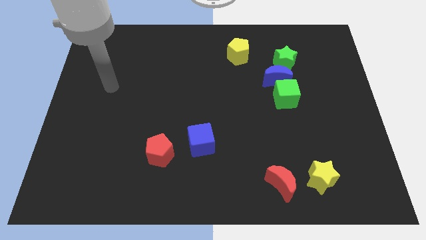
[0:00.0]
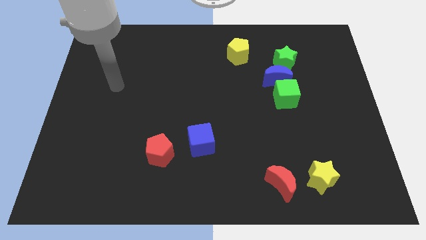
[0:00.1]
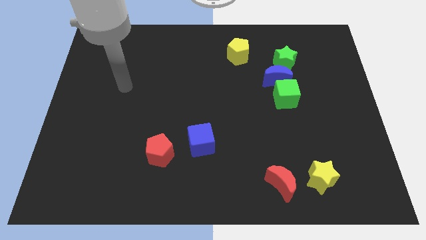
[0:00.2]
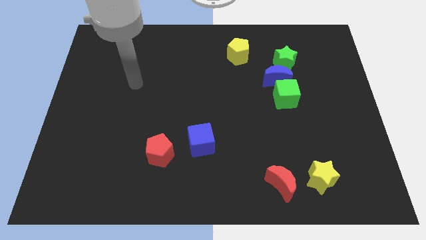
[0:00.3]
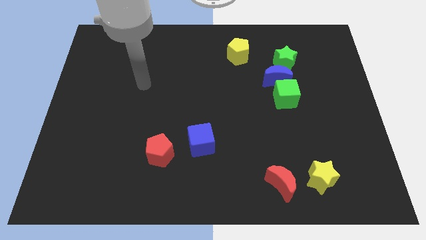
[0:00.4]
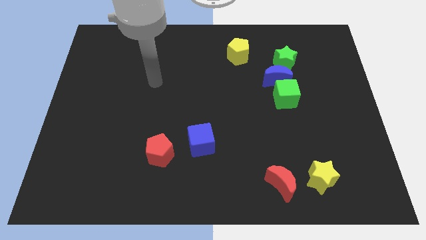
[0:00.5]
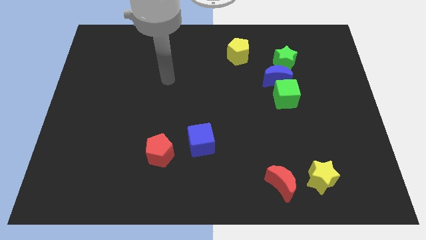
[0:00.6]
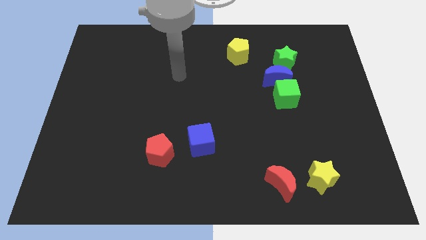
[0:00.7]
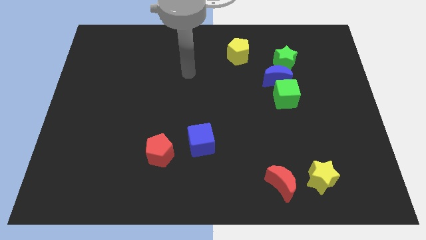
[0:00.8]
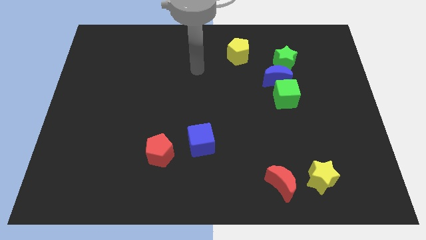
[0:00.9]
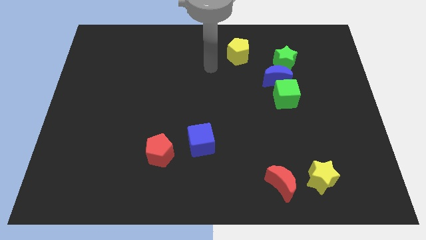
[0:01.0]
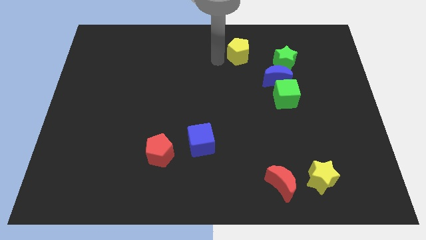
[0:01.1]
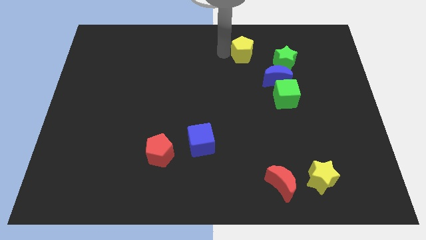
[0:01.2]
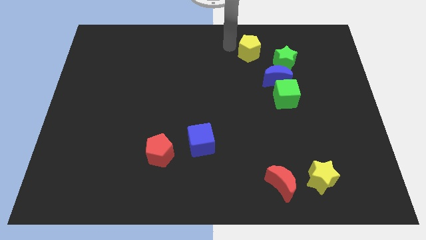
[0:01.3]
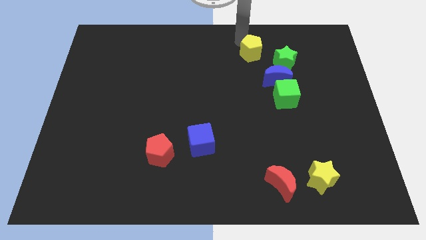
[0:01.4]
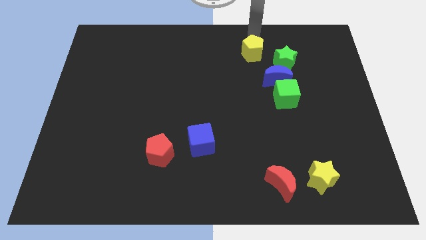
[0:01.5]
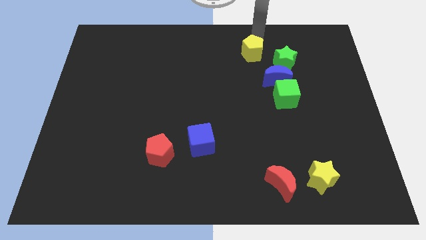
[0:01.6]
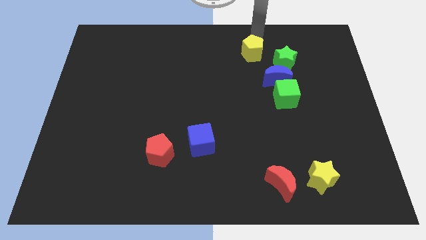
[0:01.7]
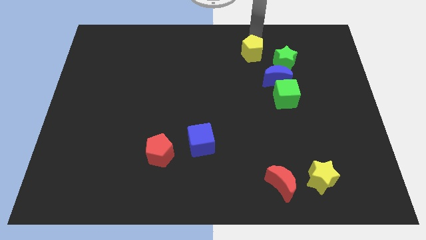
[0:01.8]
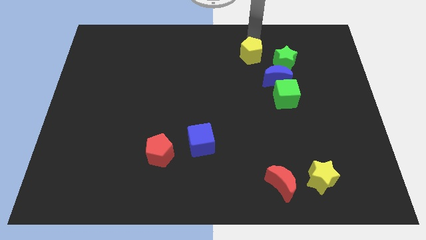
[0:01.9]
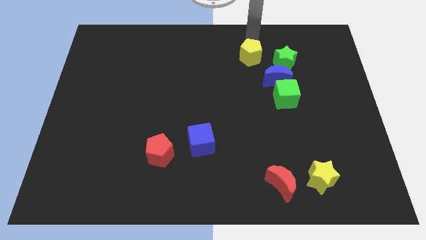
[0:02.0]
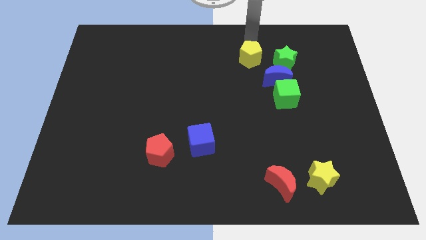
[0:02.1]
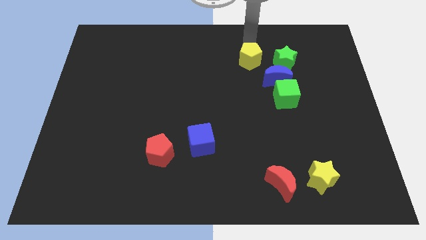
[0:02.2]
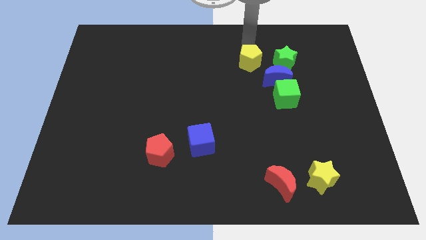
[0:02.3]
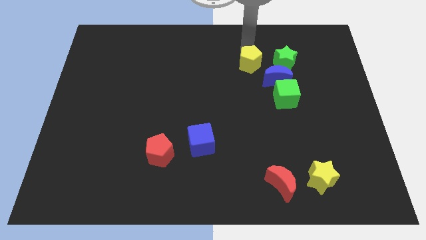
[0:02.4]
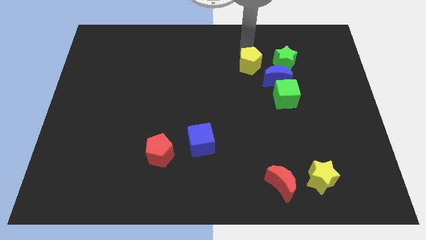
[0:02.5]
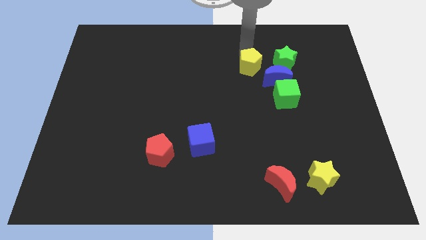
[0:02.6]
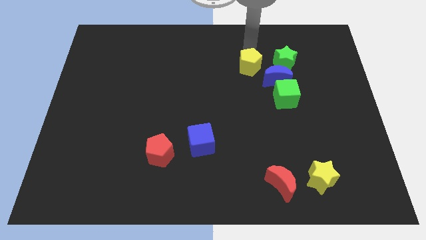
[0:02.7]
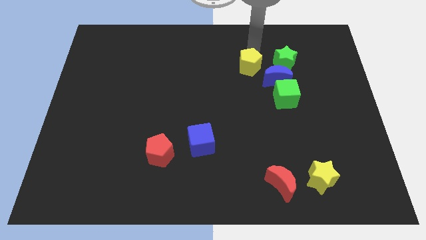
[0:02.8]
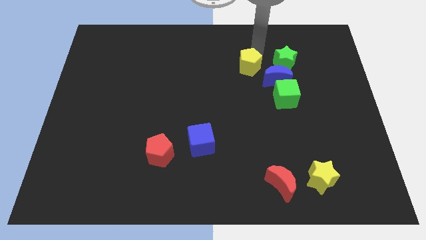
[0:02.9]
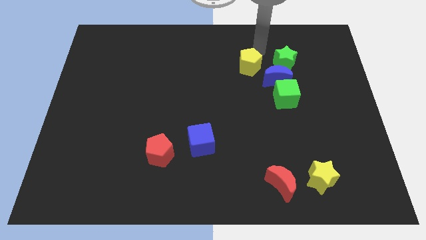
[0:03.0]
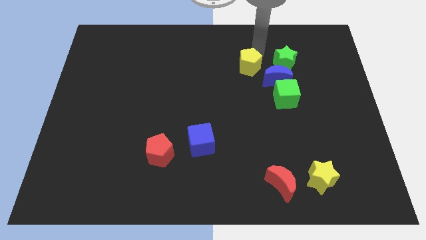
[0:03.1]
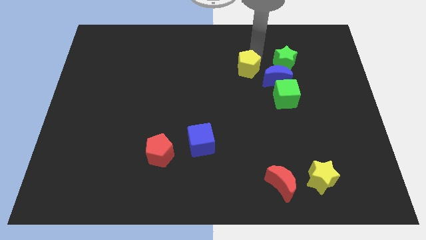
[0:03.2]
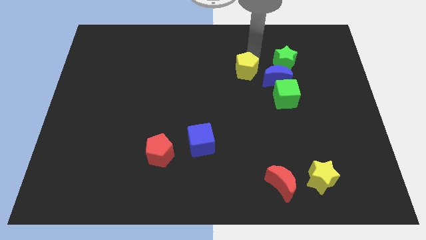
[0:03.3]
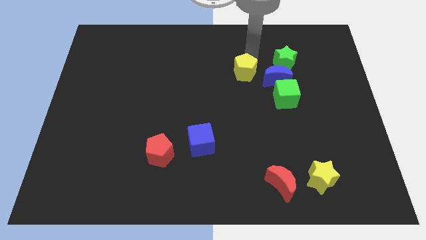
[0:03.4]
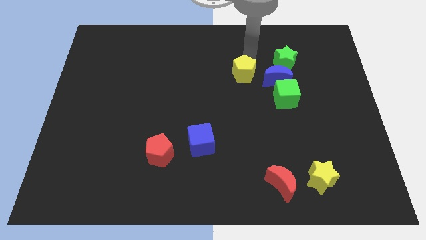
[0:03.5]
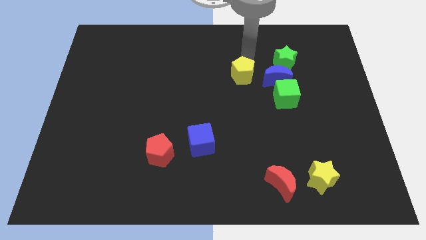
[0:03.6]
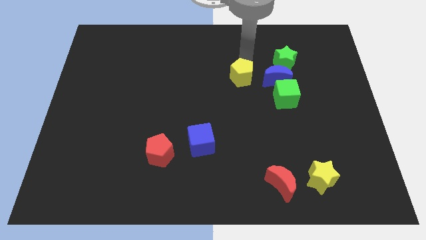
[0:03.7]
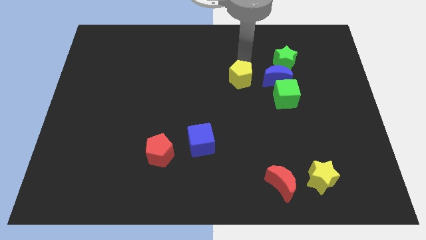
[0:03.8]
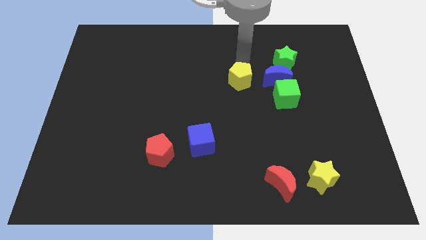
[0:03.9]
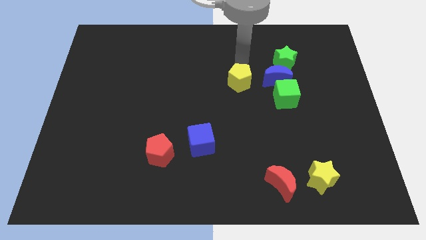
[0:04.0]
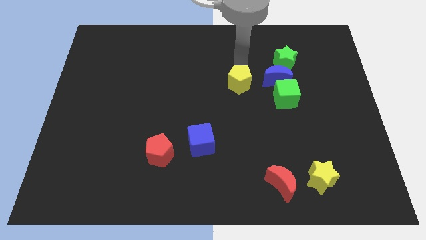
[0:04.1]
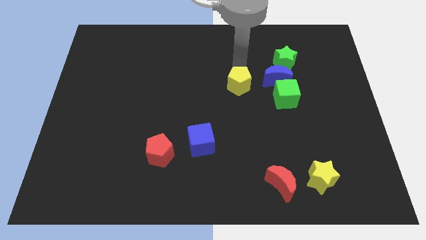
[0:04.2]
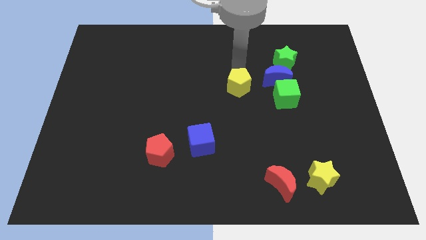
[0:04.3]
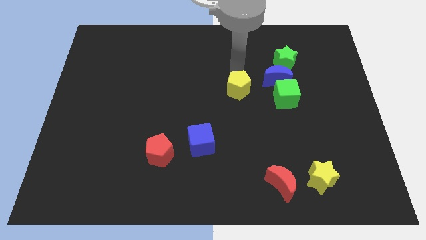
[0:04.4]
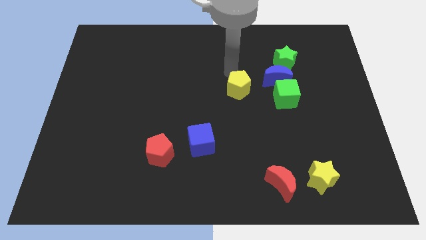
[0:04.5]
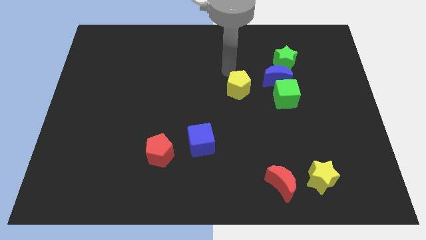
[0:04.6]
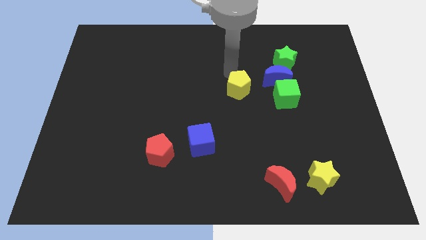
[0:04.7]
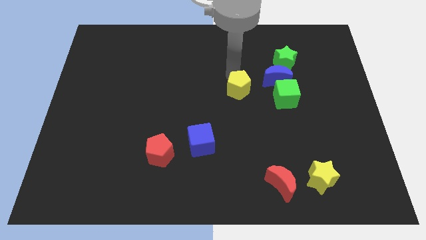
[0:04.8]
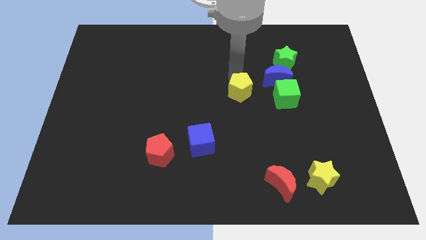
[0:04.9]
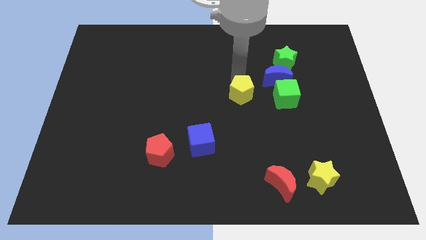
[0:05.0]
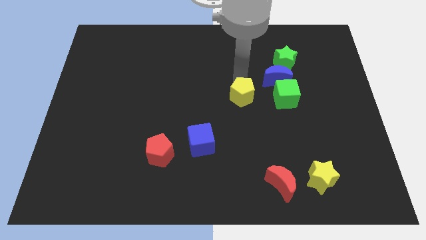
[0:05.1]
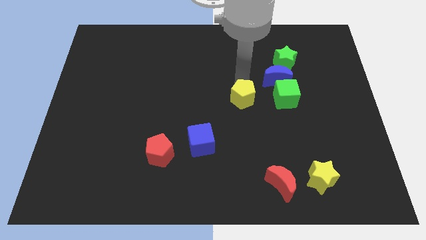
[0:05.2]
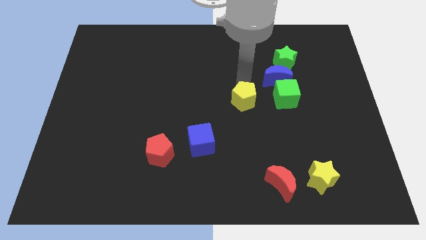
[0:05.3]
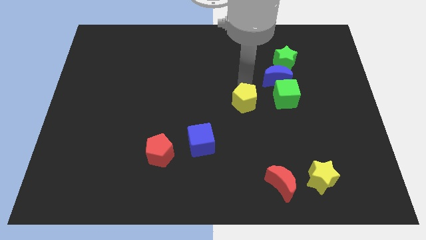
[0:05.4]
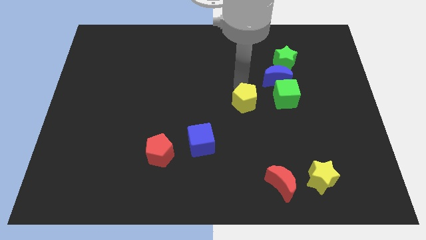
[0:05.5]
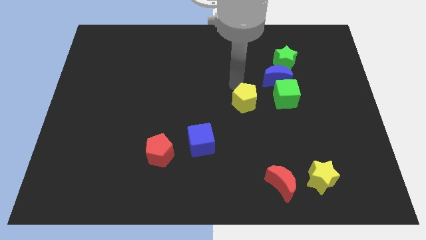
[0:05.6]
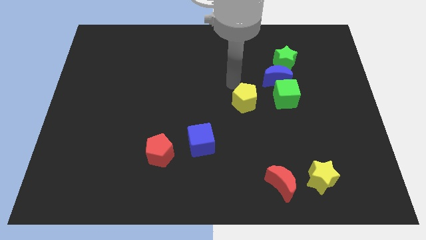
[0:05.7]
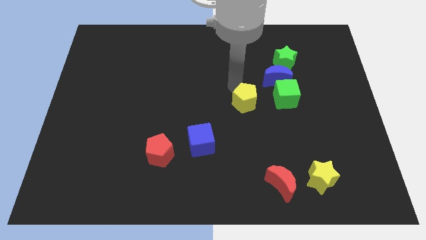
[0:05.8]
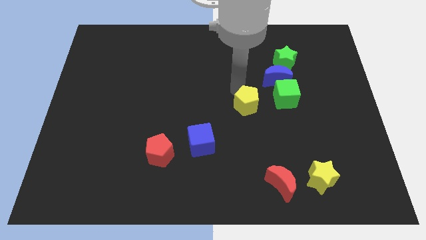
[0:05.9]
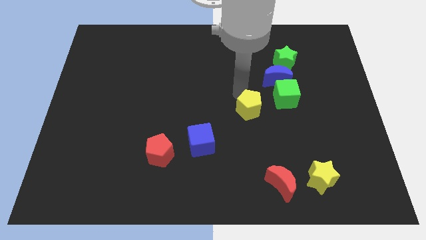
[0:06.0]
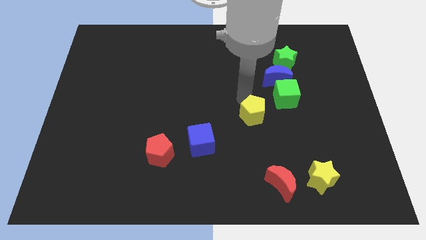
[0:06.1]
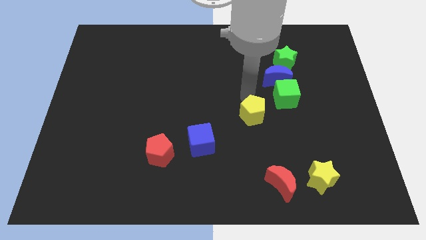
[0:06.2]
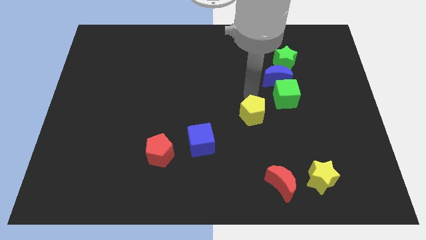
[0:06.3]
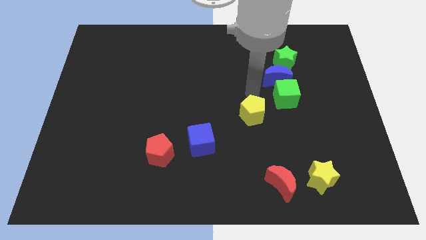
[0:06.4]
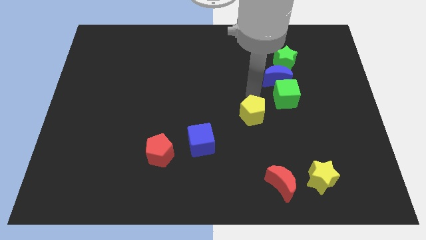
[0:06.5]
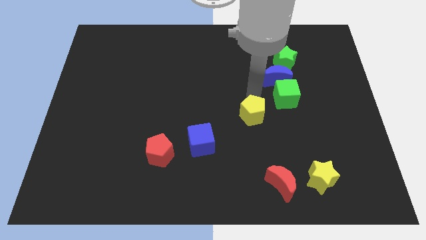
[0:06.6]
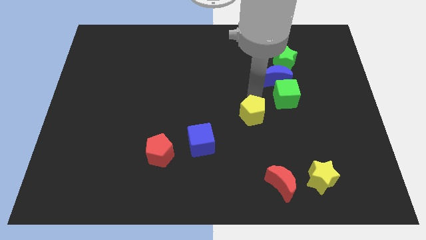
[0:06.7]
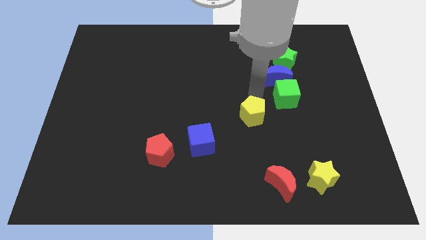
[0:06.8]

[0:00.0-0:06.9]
slide the yellow pentagon down

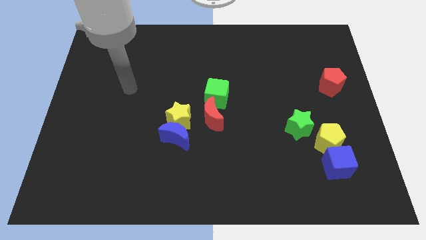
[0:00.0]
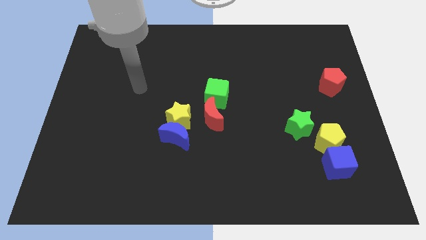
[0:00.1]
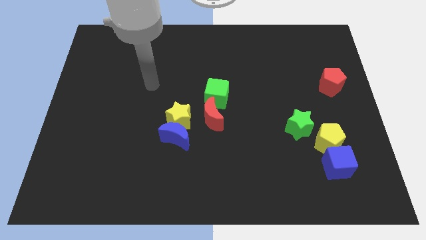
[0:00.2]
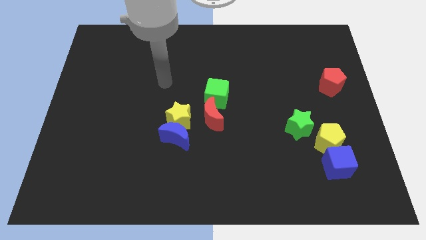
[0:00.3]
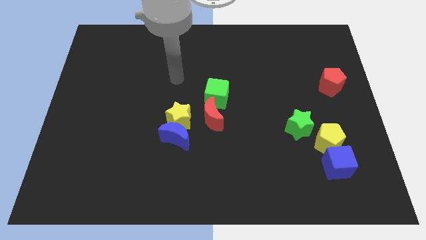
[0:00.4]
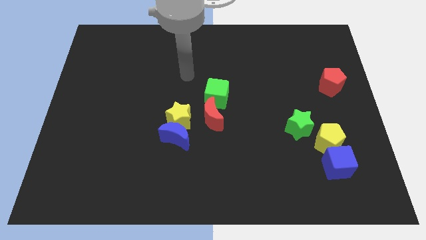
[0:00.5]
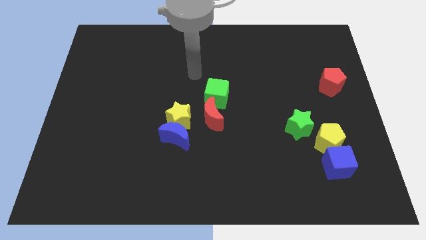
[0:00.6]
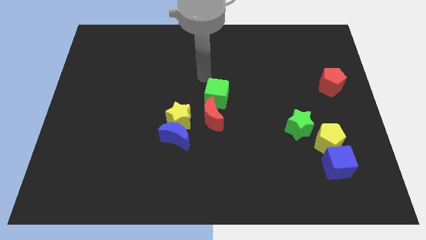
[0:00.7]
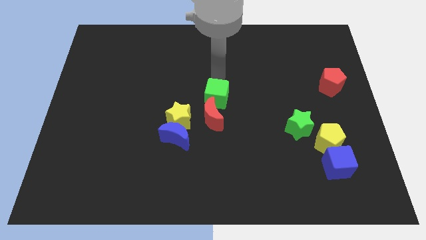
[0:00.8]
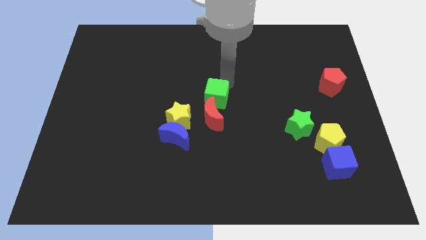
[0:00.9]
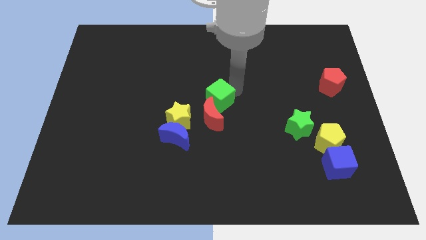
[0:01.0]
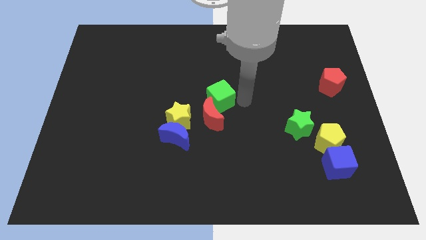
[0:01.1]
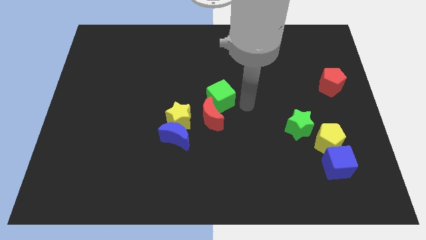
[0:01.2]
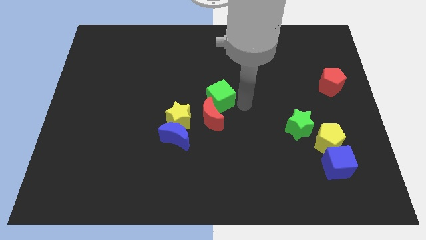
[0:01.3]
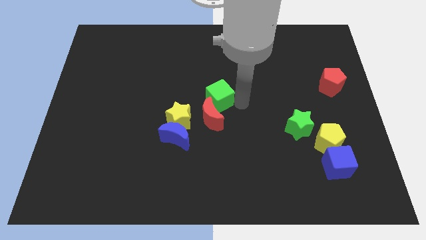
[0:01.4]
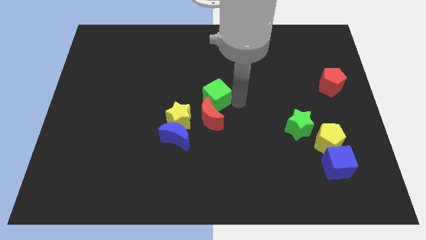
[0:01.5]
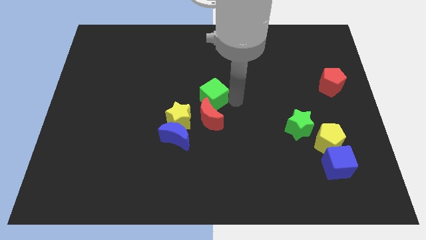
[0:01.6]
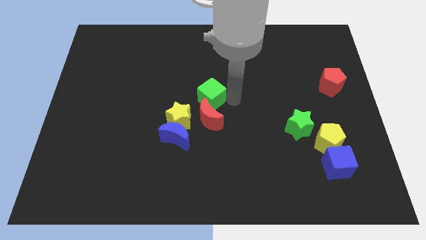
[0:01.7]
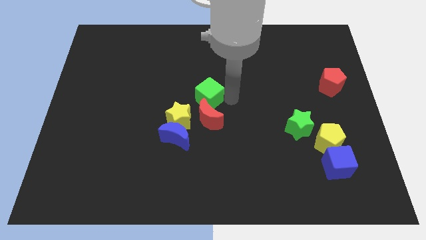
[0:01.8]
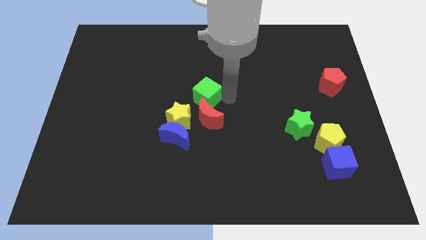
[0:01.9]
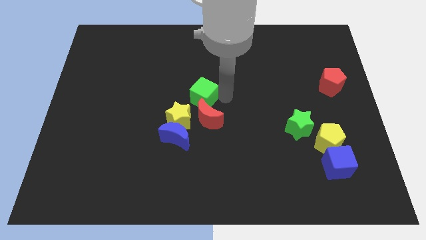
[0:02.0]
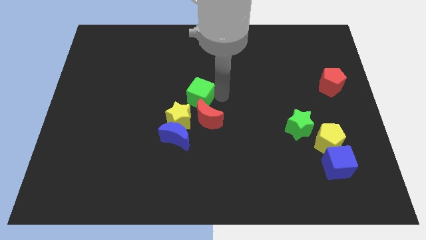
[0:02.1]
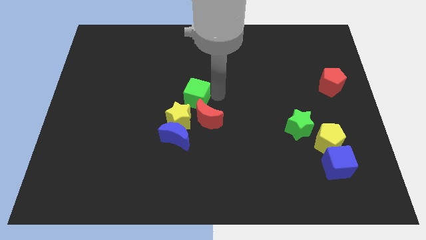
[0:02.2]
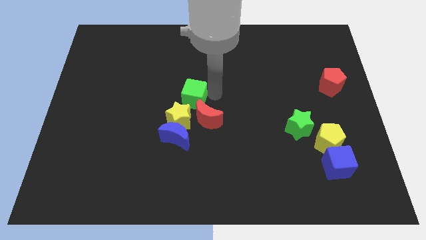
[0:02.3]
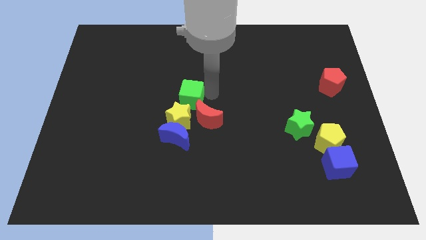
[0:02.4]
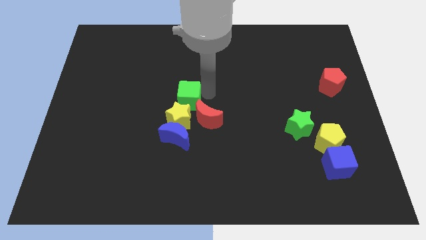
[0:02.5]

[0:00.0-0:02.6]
slightly move the green cube left
